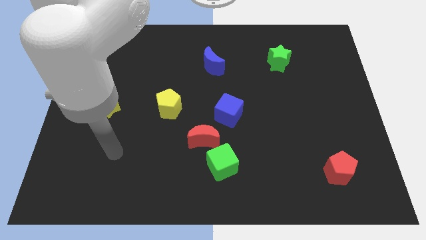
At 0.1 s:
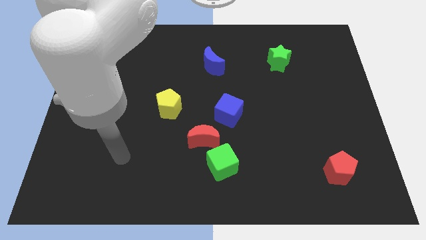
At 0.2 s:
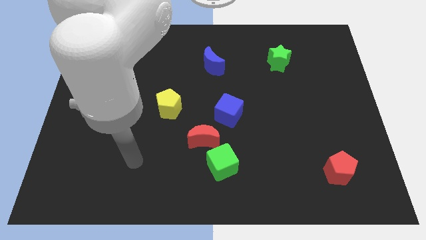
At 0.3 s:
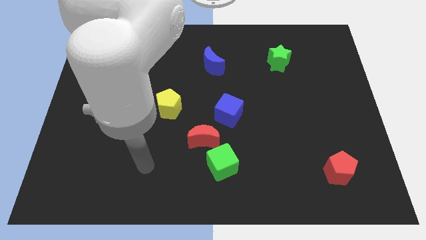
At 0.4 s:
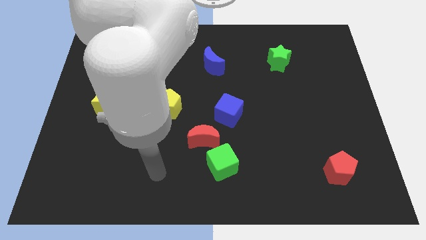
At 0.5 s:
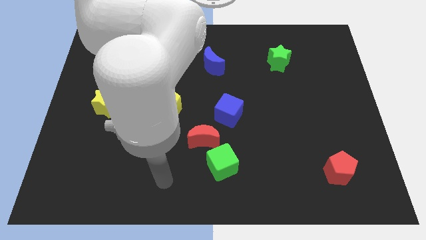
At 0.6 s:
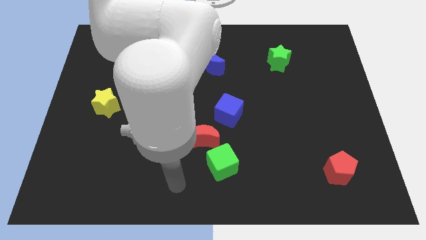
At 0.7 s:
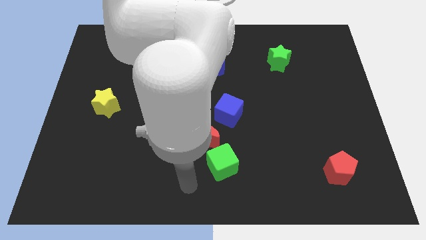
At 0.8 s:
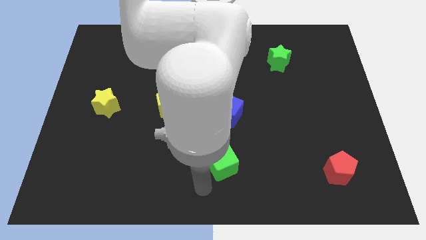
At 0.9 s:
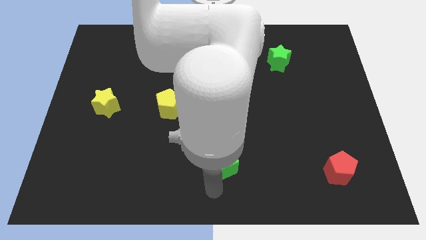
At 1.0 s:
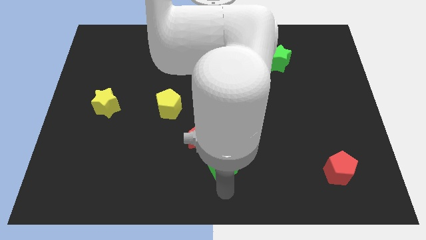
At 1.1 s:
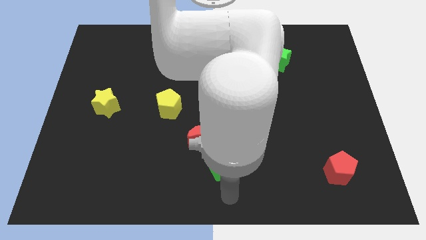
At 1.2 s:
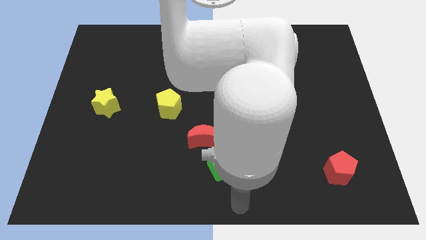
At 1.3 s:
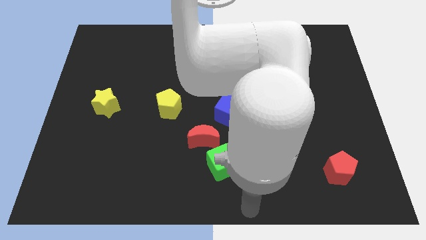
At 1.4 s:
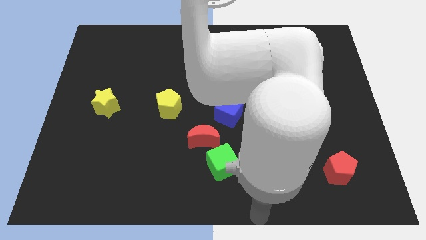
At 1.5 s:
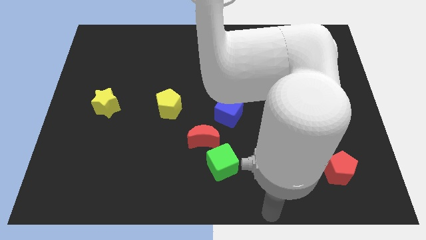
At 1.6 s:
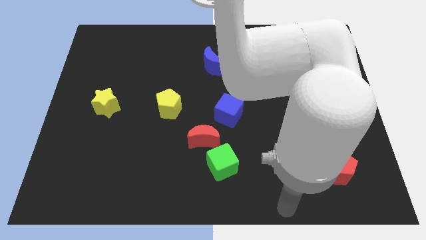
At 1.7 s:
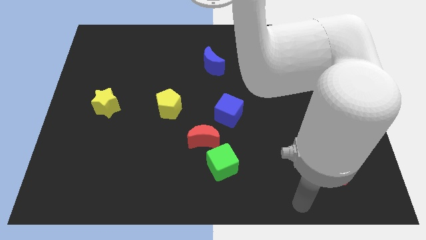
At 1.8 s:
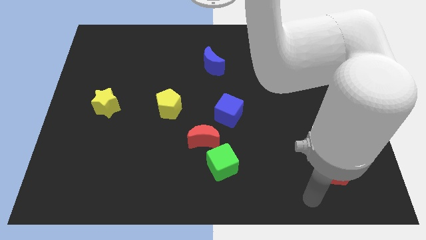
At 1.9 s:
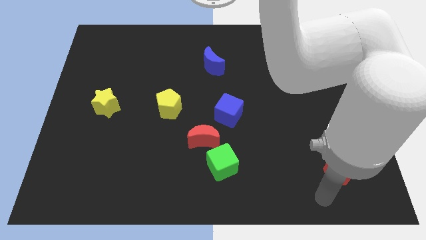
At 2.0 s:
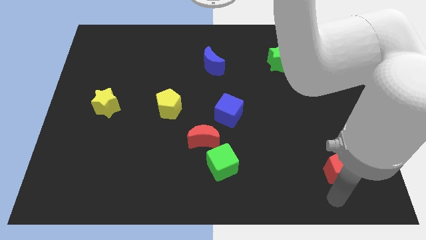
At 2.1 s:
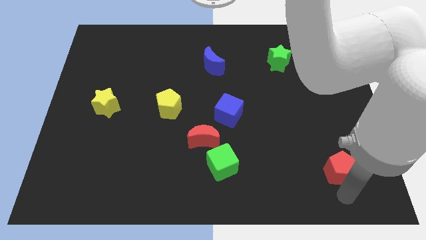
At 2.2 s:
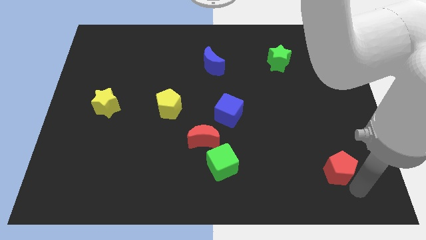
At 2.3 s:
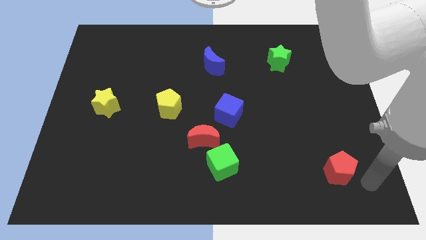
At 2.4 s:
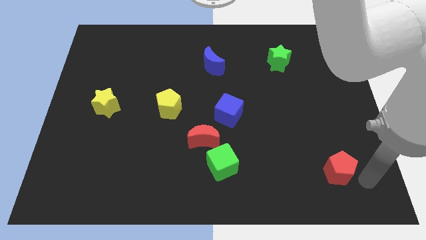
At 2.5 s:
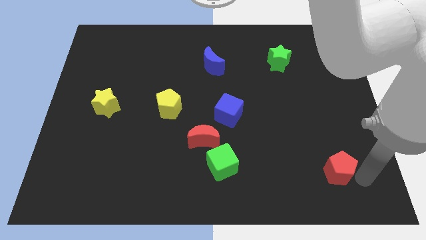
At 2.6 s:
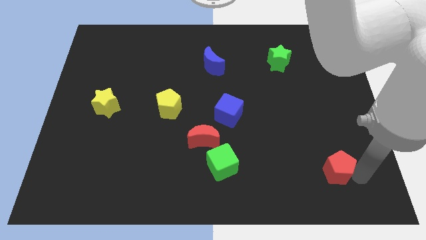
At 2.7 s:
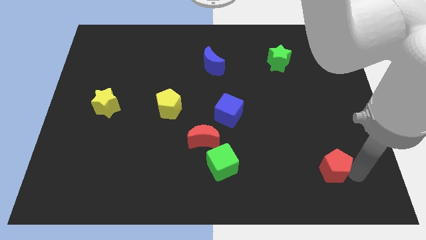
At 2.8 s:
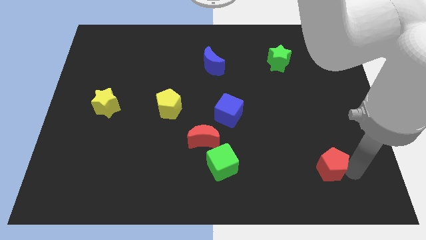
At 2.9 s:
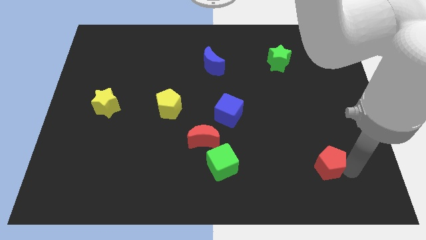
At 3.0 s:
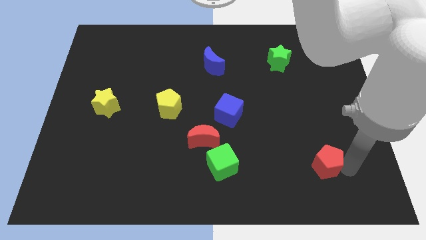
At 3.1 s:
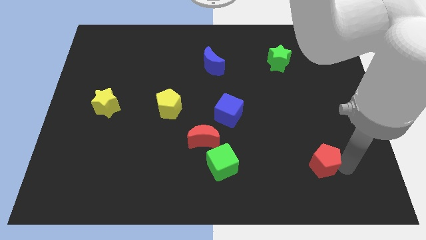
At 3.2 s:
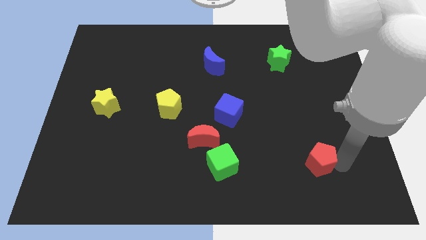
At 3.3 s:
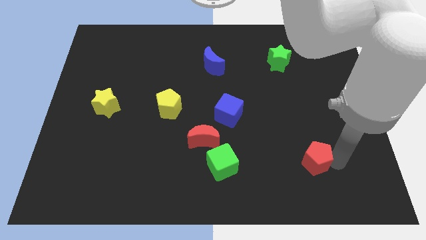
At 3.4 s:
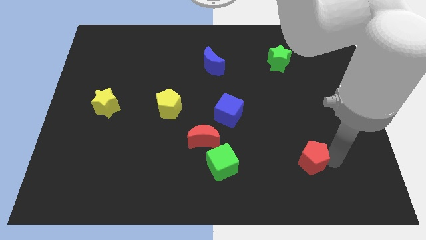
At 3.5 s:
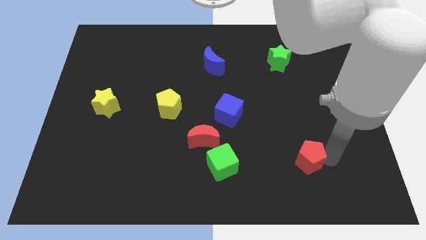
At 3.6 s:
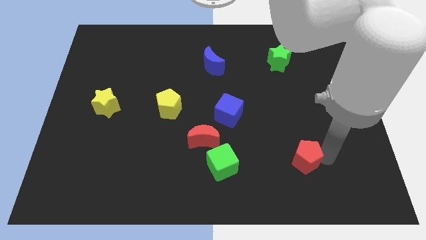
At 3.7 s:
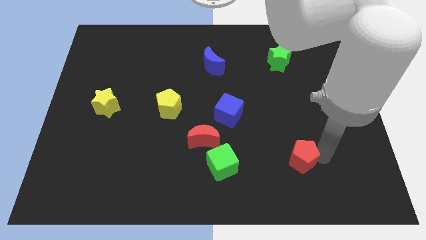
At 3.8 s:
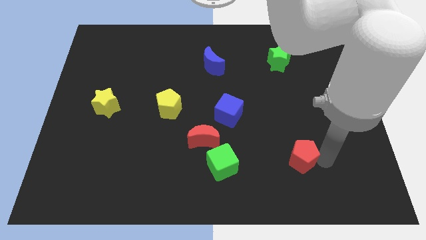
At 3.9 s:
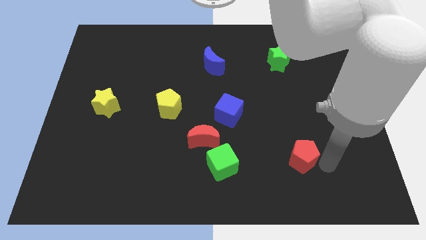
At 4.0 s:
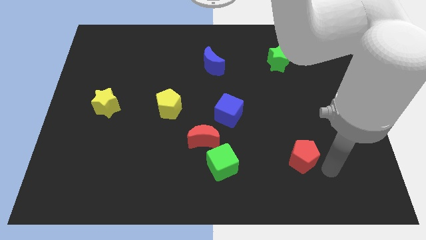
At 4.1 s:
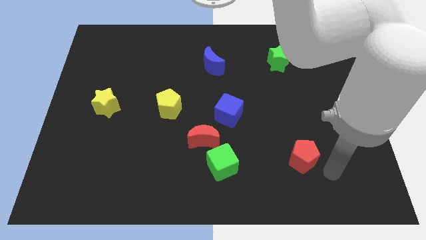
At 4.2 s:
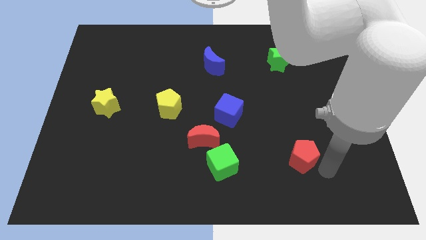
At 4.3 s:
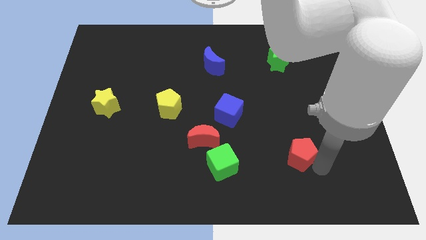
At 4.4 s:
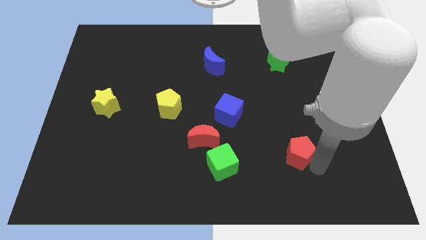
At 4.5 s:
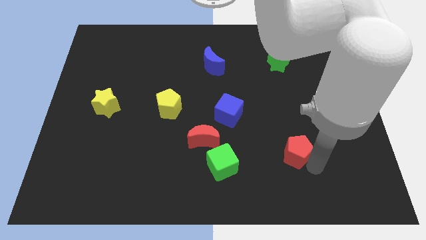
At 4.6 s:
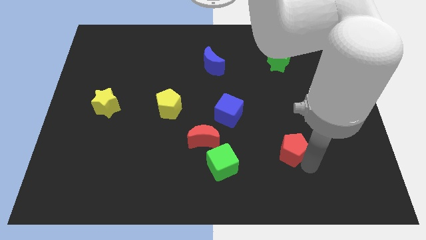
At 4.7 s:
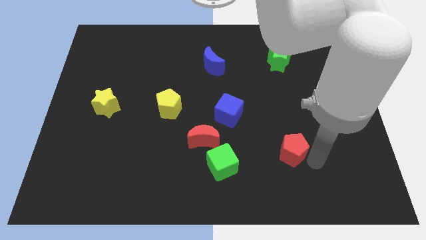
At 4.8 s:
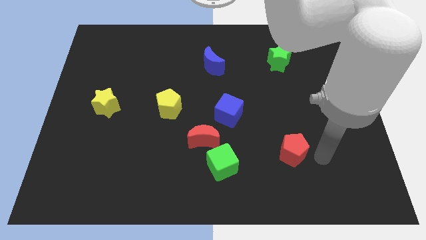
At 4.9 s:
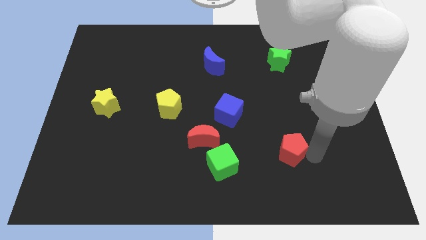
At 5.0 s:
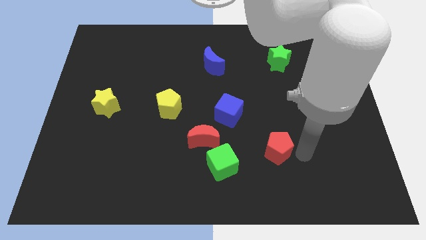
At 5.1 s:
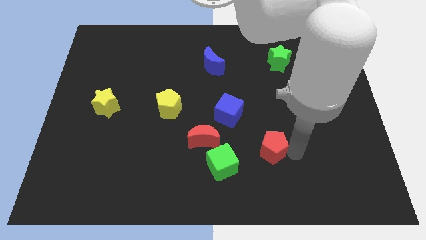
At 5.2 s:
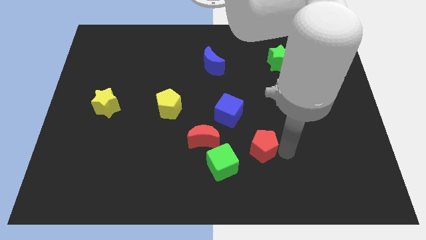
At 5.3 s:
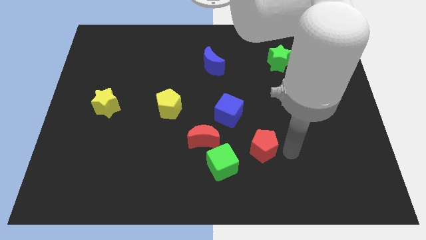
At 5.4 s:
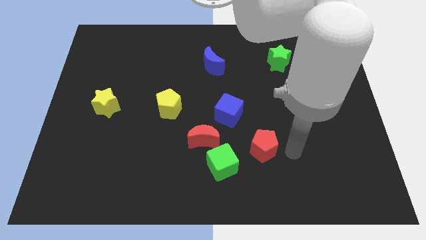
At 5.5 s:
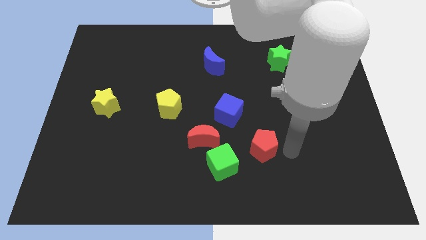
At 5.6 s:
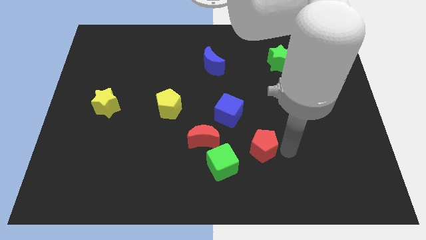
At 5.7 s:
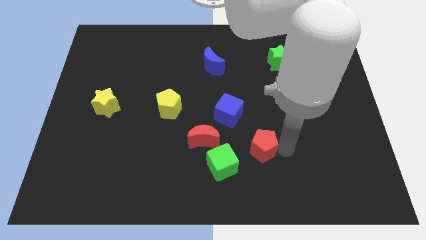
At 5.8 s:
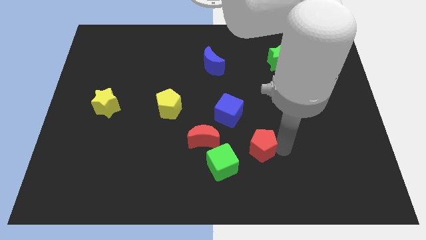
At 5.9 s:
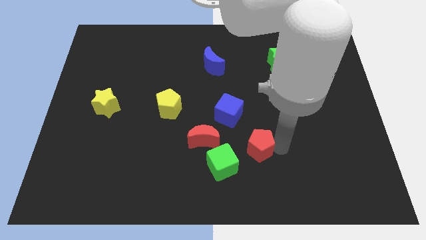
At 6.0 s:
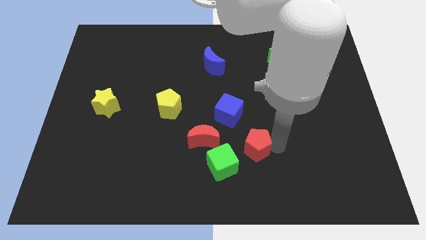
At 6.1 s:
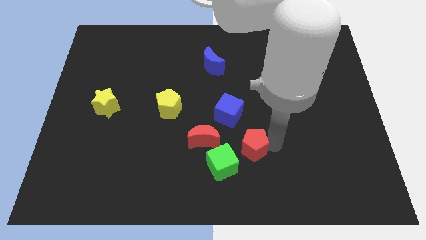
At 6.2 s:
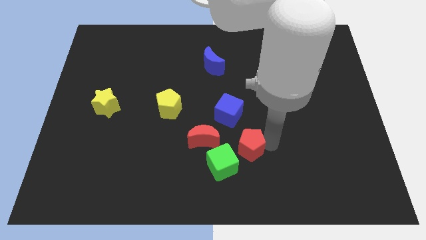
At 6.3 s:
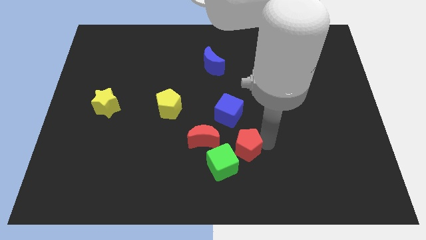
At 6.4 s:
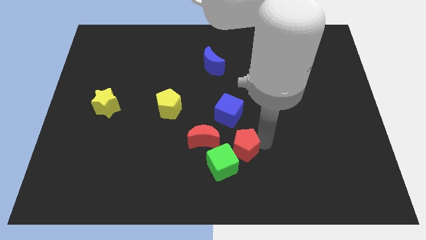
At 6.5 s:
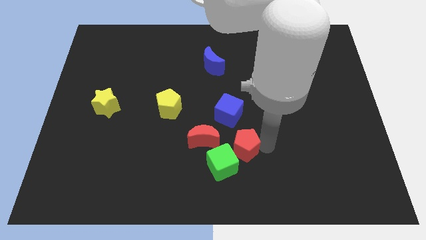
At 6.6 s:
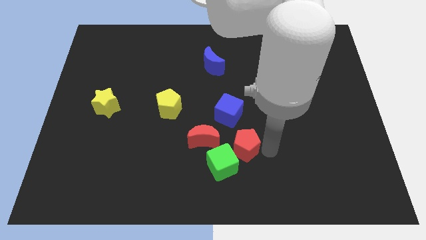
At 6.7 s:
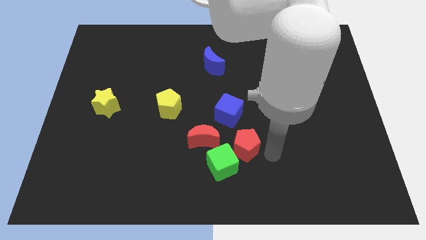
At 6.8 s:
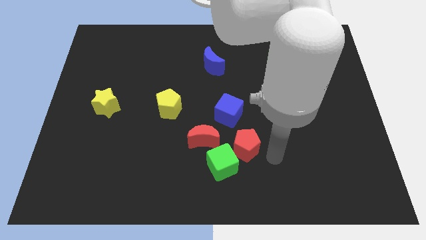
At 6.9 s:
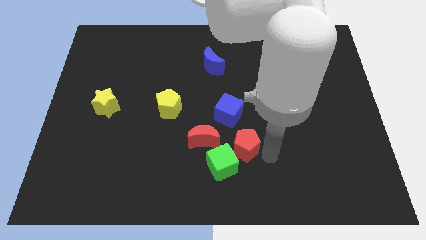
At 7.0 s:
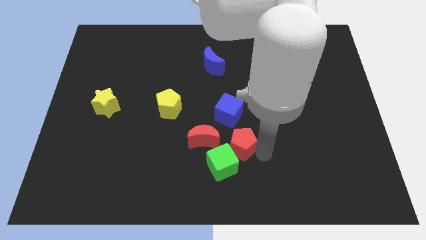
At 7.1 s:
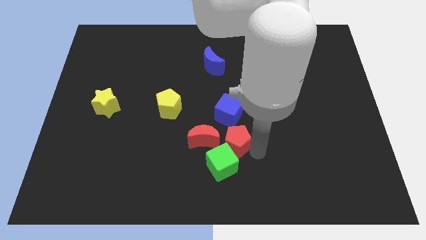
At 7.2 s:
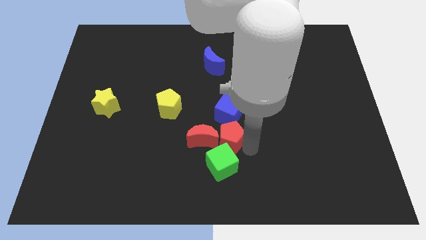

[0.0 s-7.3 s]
slide the red pentagon close to the red moon
